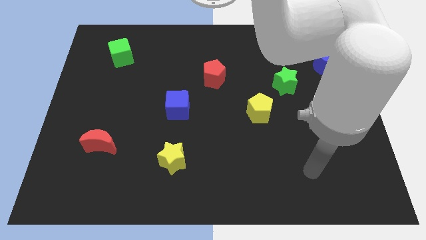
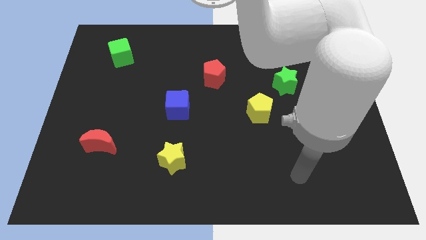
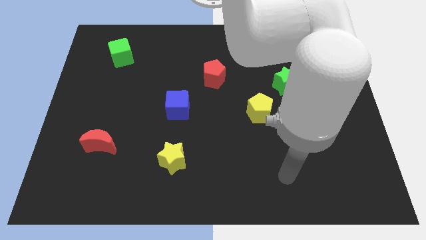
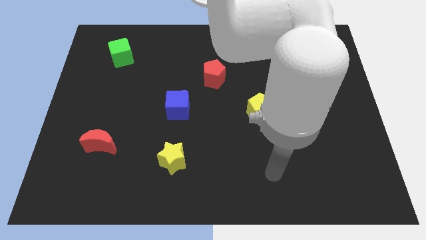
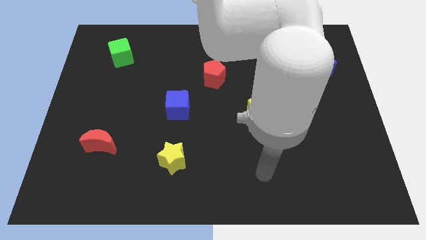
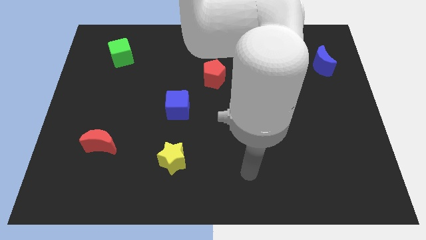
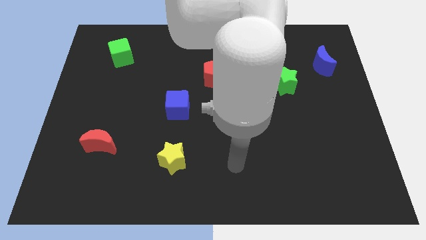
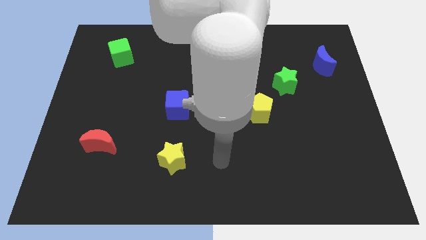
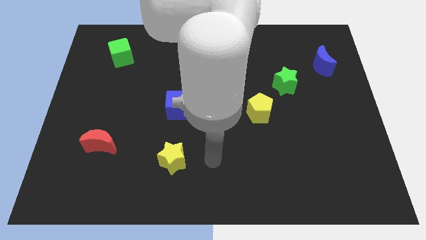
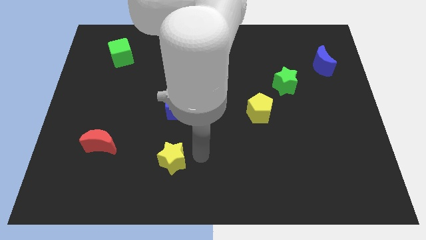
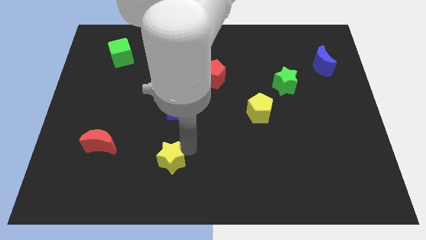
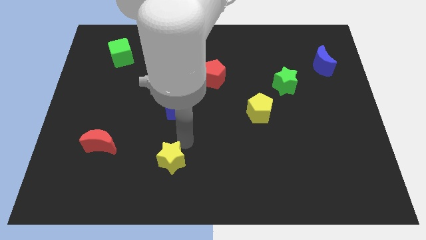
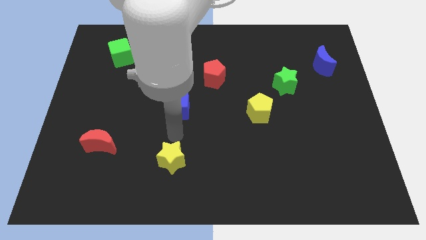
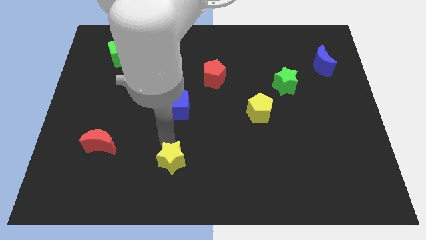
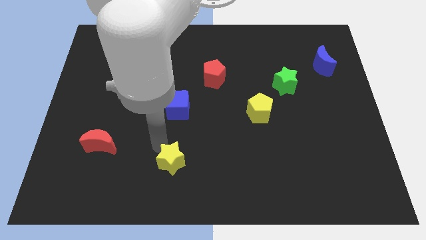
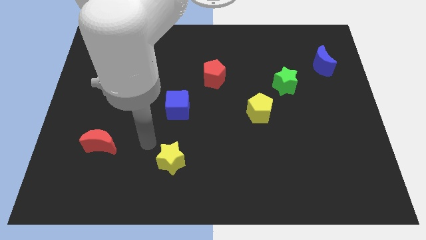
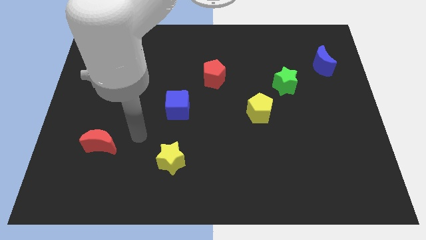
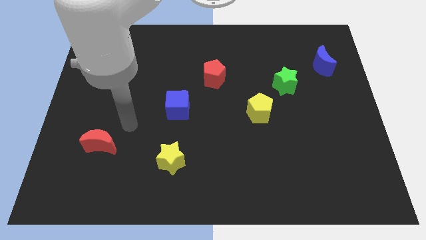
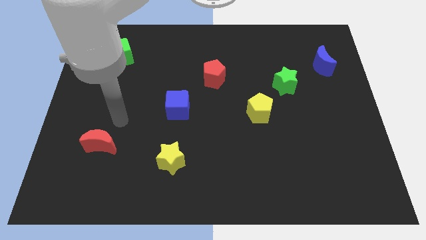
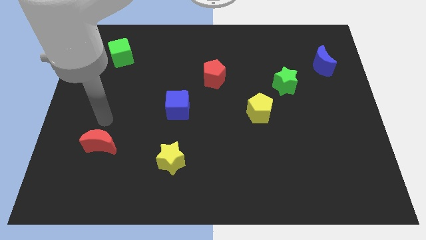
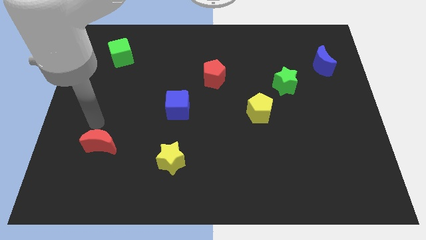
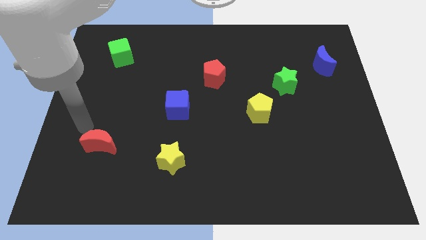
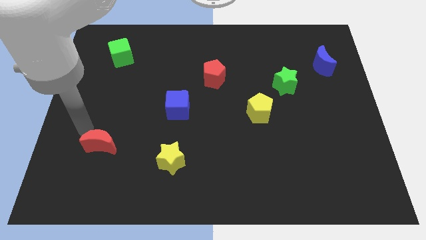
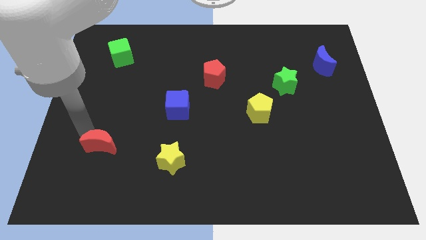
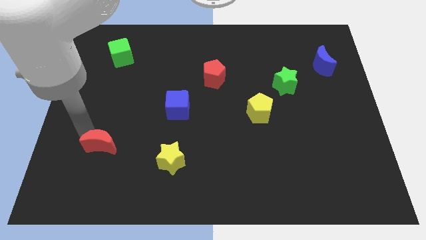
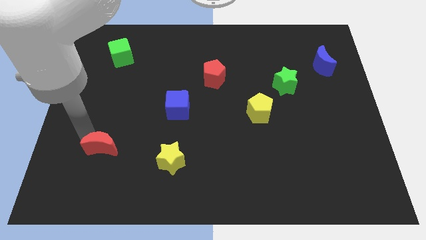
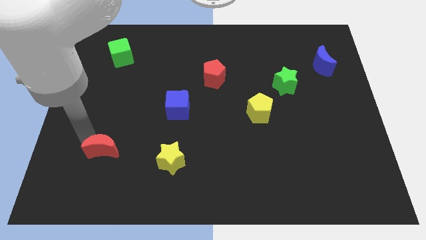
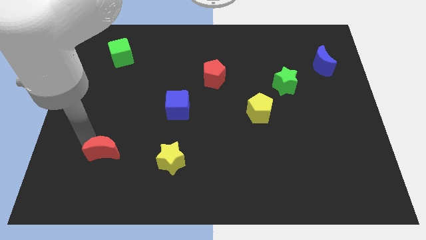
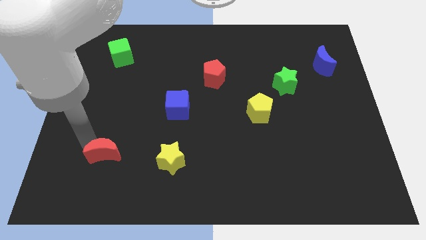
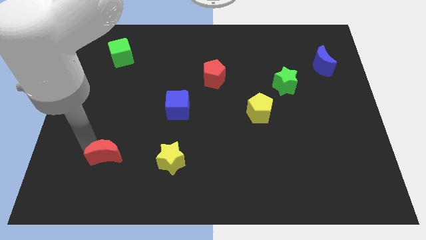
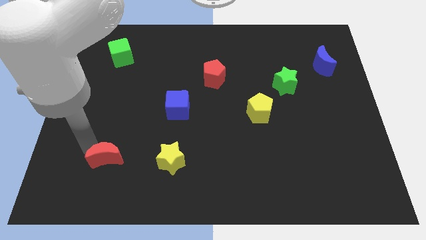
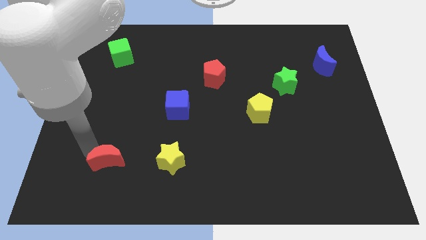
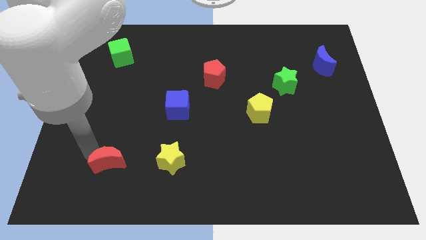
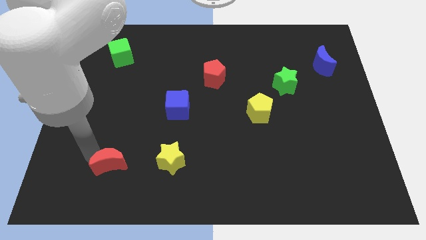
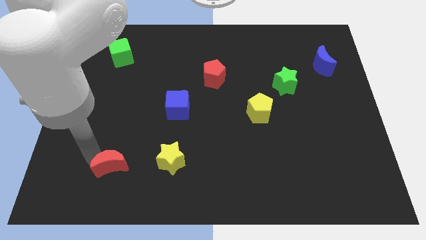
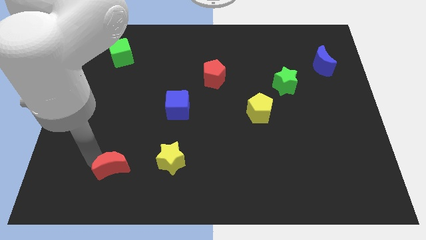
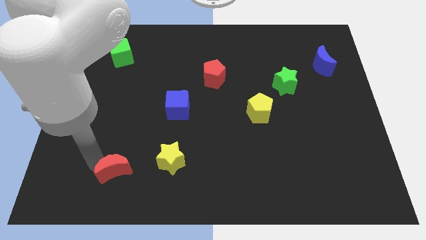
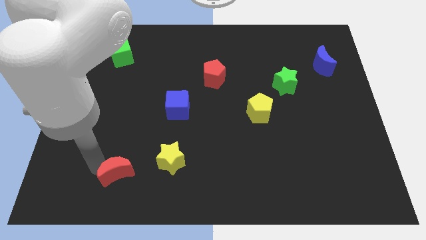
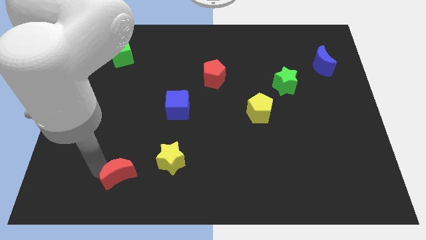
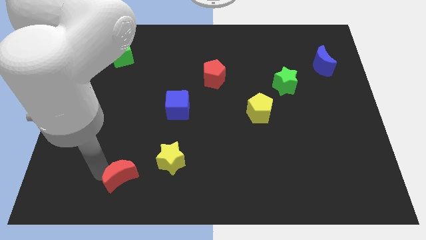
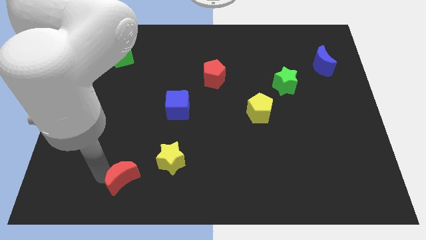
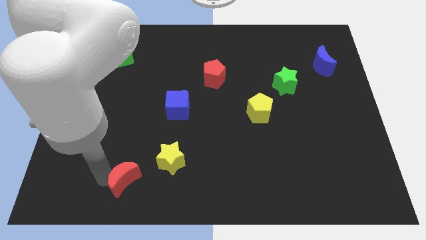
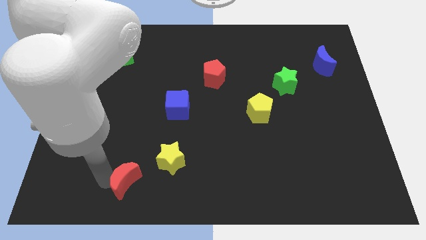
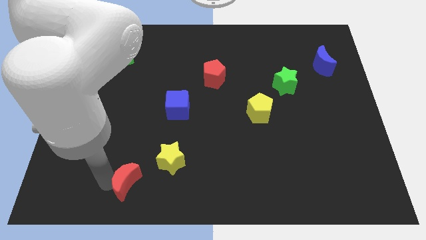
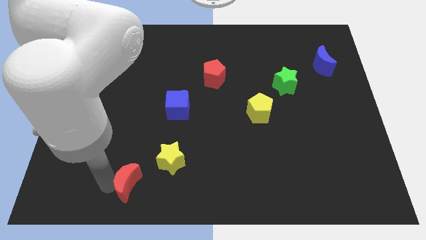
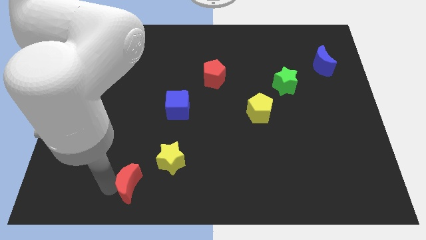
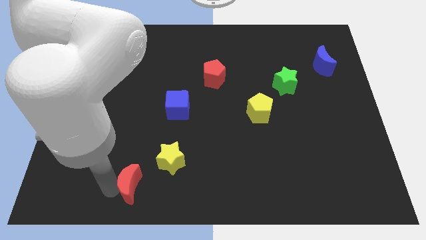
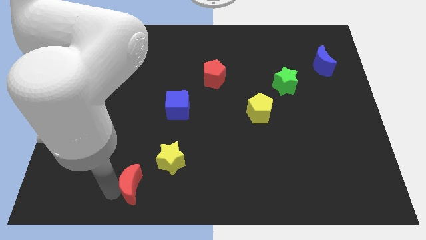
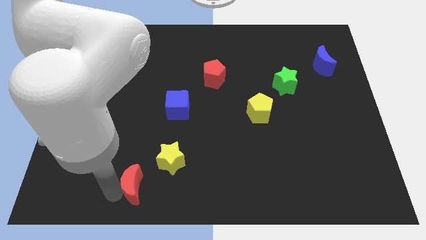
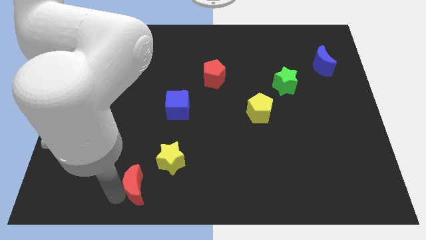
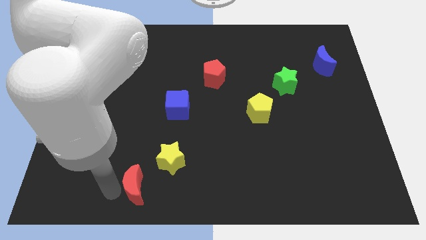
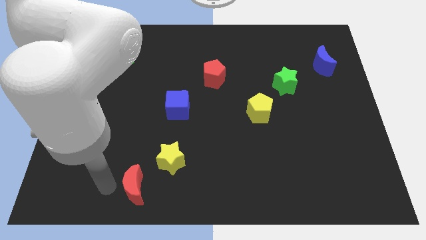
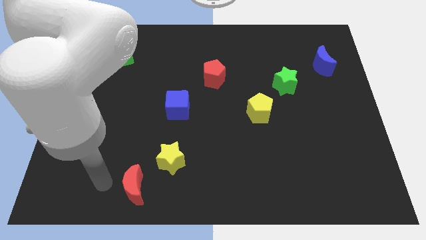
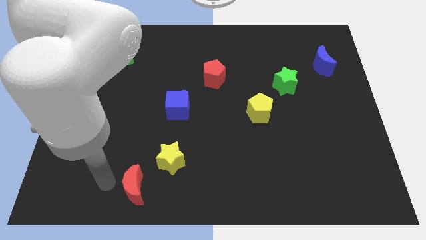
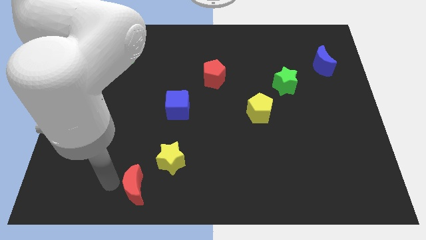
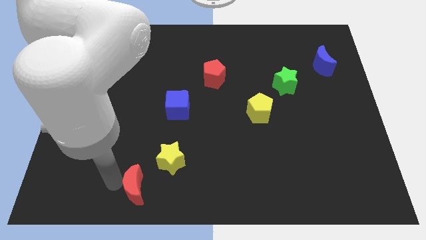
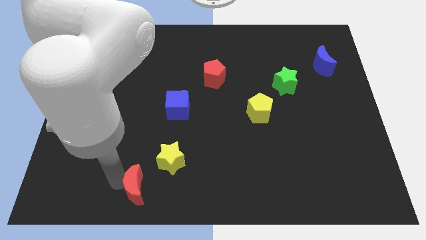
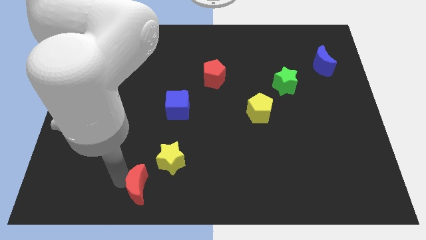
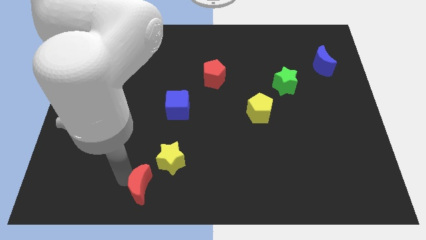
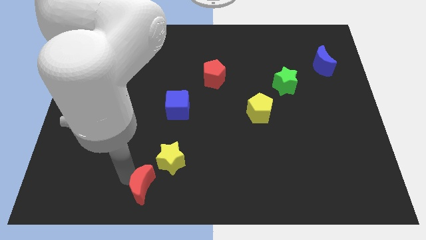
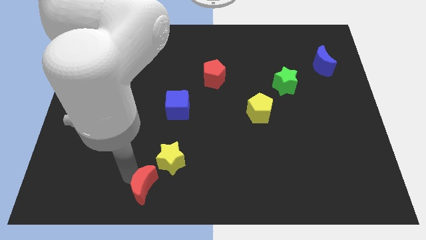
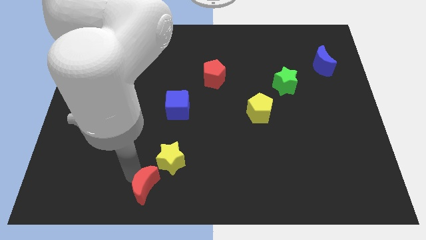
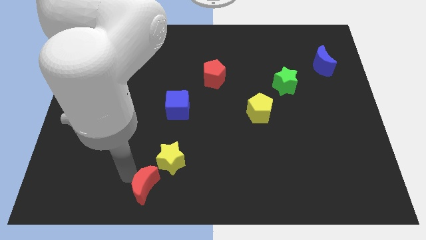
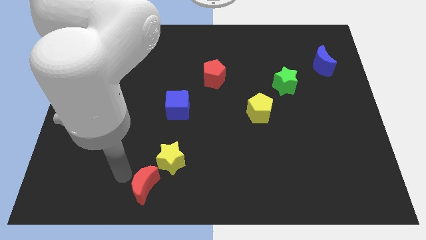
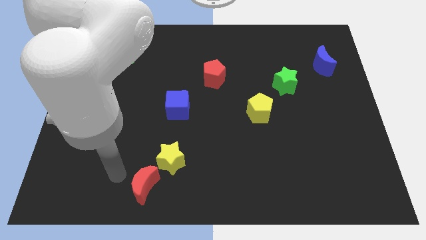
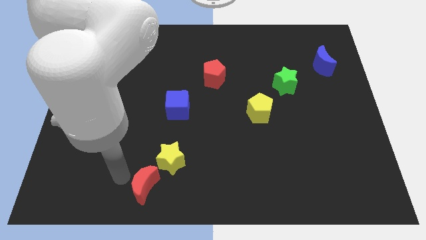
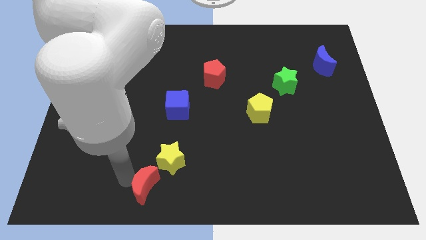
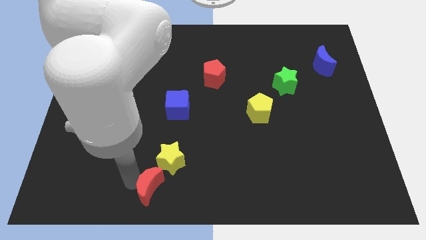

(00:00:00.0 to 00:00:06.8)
push the red moon to the bottom

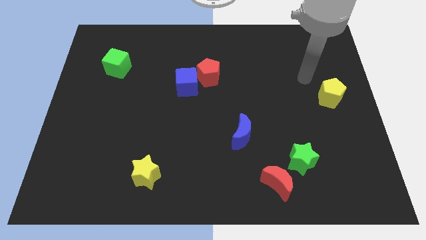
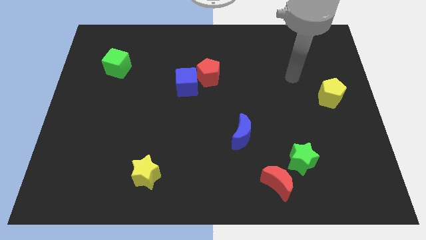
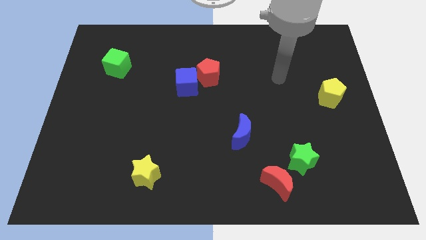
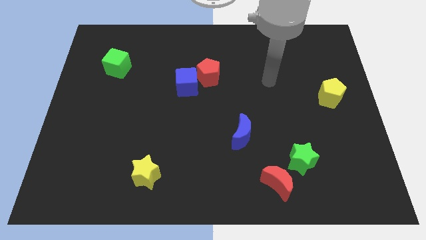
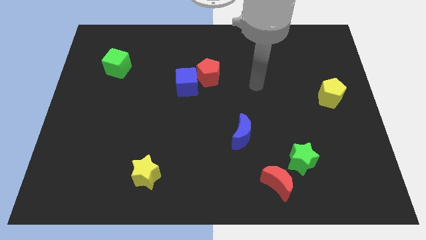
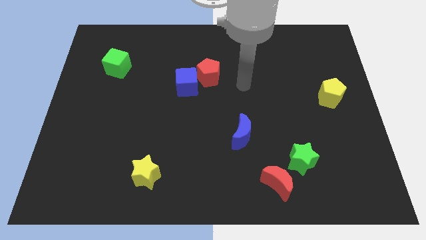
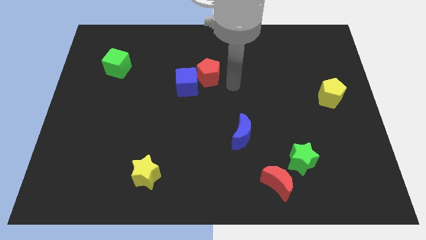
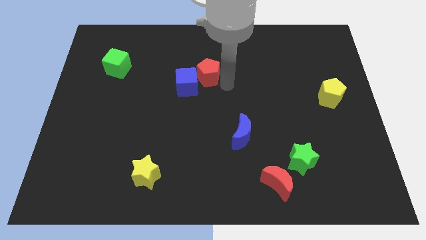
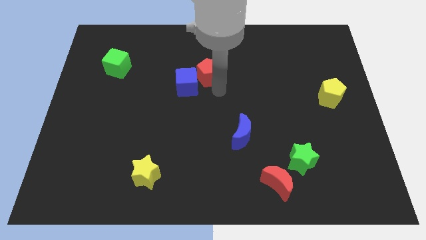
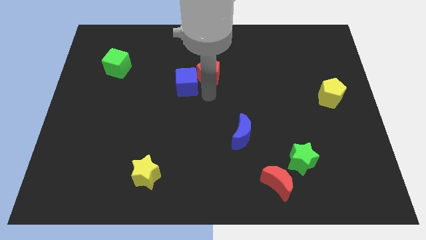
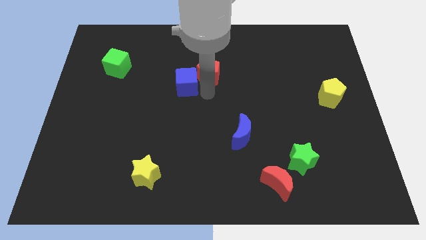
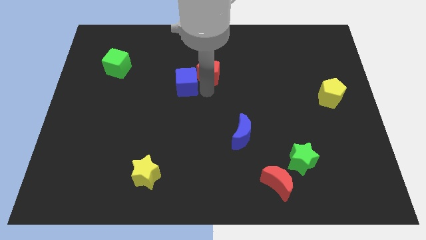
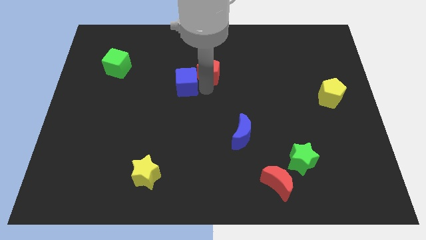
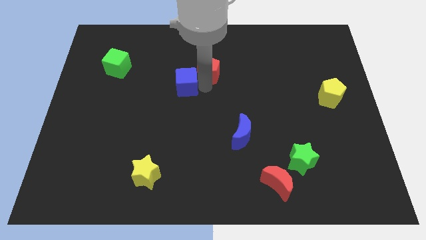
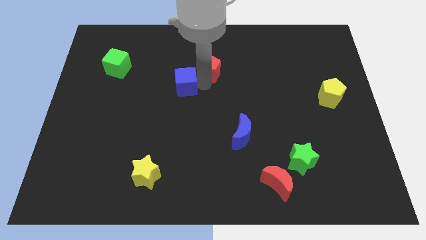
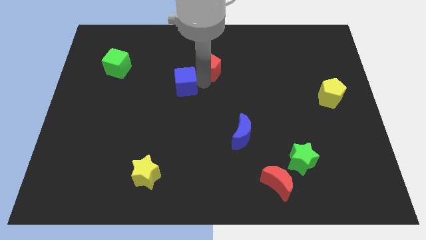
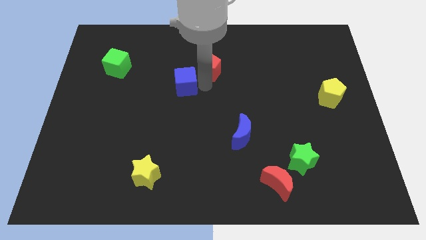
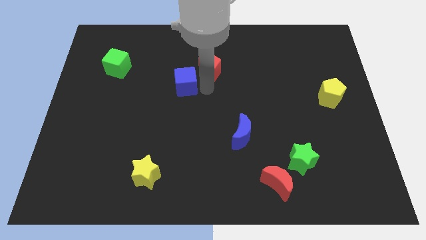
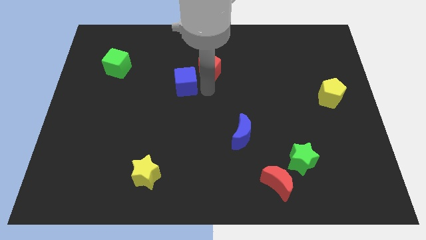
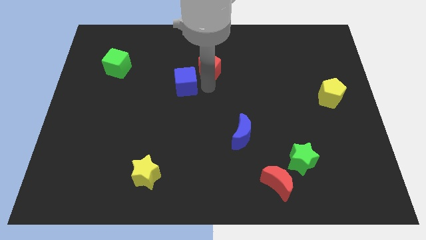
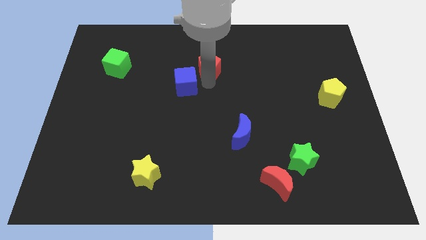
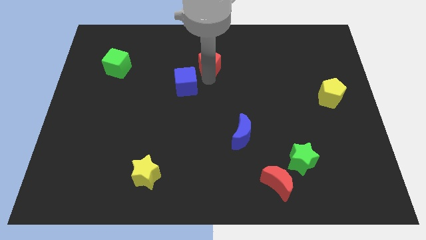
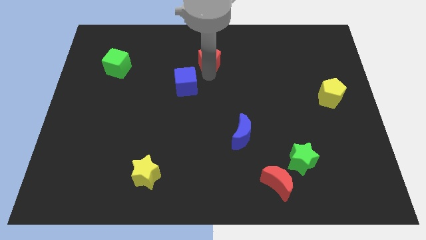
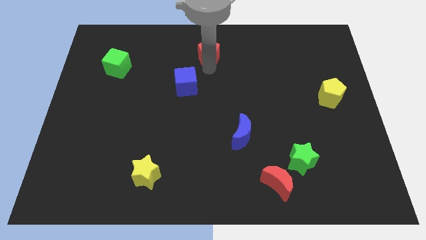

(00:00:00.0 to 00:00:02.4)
move the red pentagon to the top
